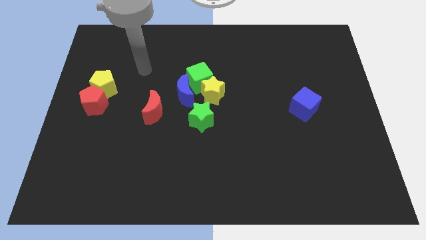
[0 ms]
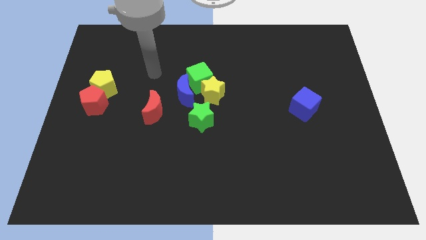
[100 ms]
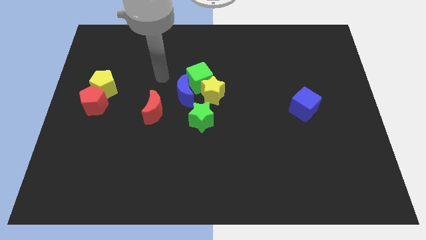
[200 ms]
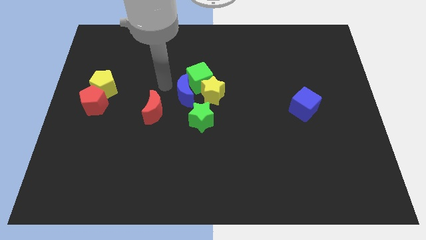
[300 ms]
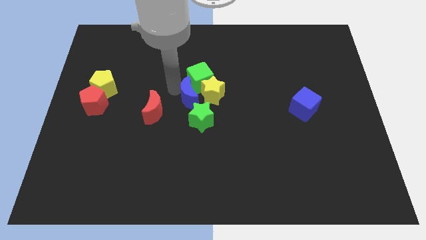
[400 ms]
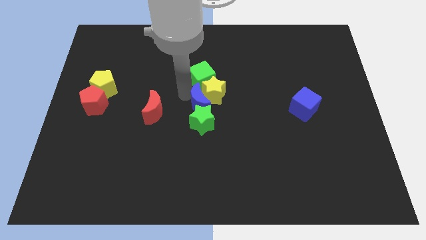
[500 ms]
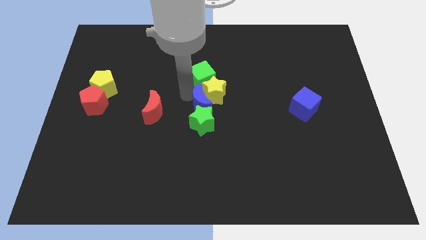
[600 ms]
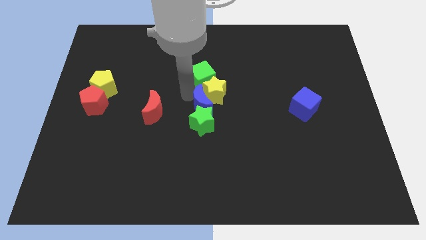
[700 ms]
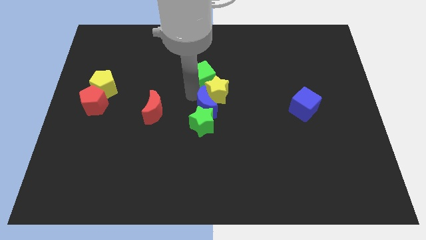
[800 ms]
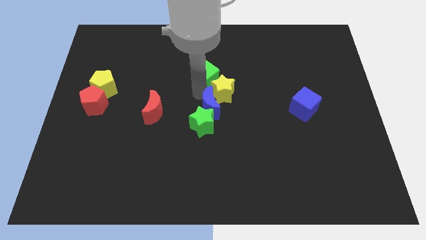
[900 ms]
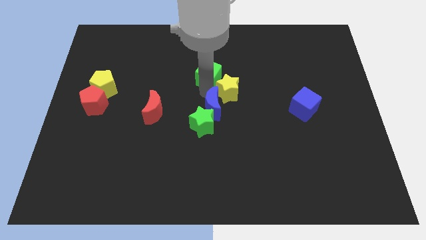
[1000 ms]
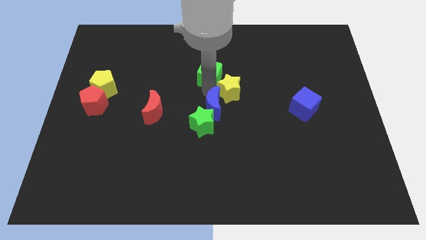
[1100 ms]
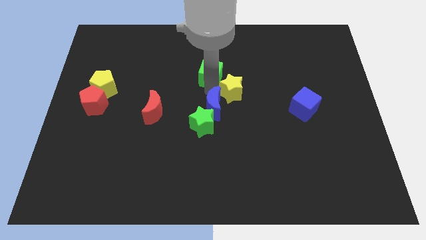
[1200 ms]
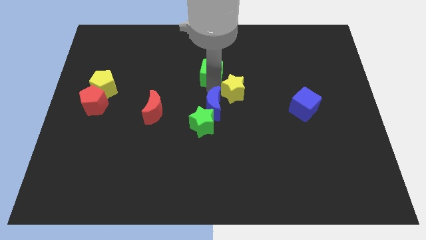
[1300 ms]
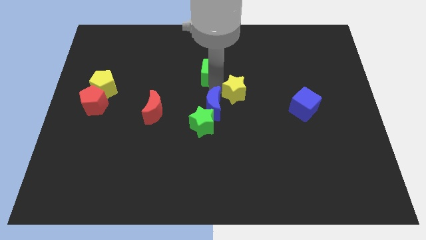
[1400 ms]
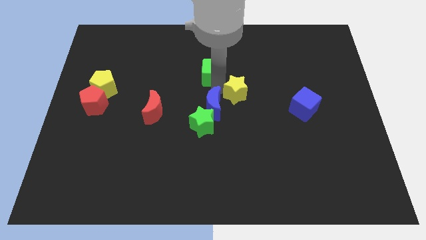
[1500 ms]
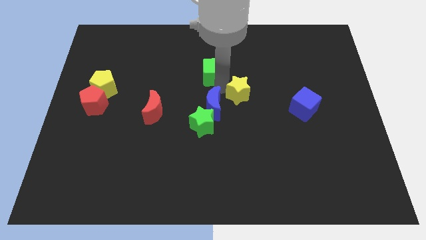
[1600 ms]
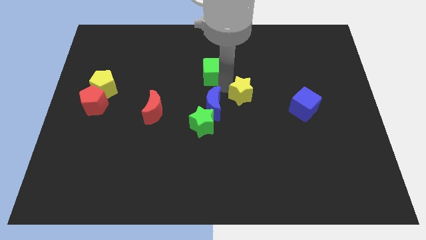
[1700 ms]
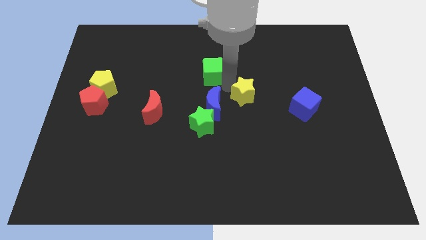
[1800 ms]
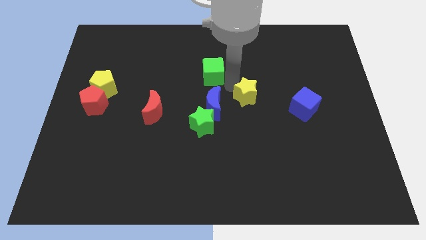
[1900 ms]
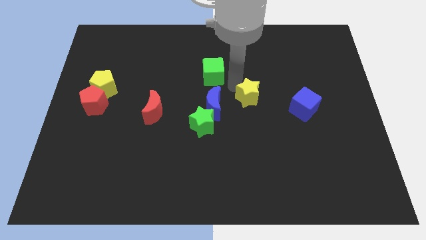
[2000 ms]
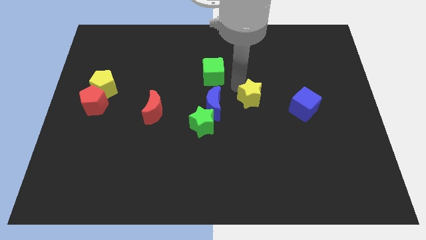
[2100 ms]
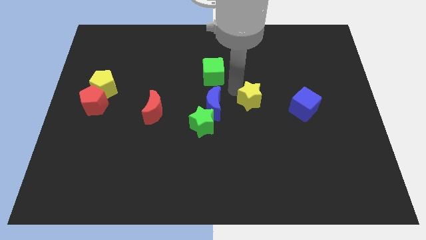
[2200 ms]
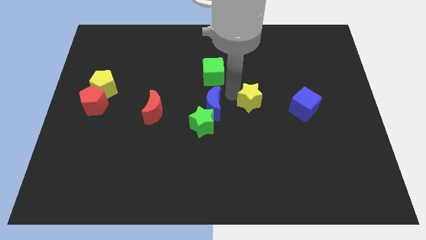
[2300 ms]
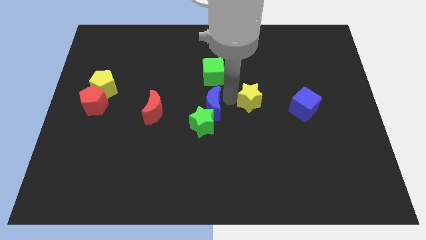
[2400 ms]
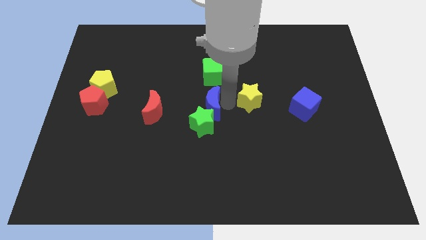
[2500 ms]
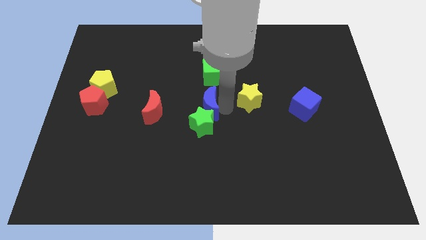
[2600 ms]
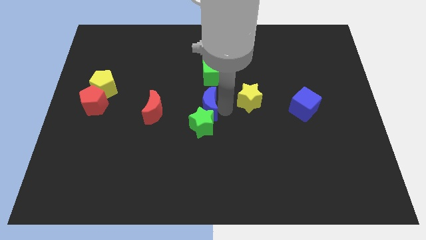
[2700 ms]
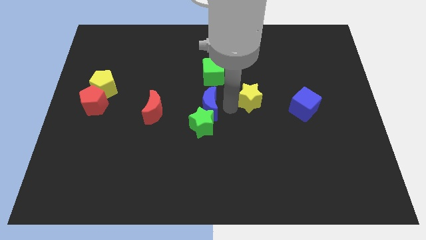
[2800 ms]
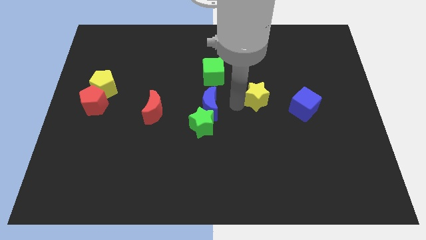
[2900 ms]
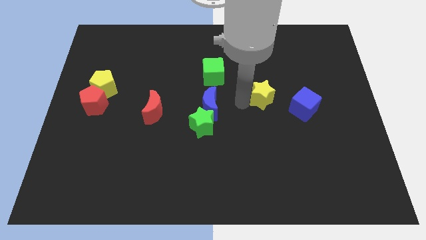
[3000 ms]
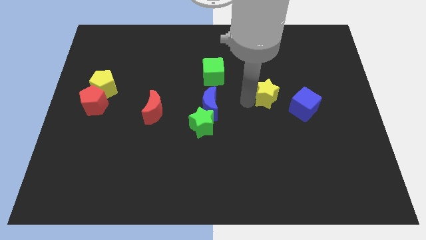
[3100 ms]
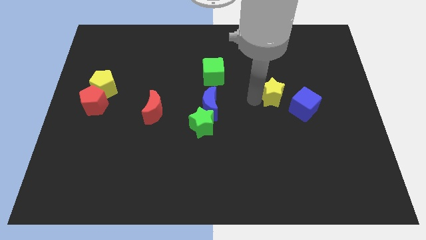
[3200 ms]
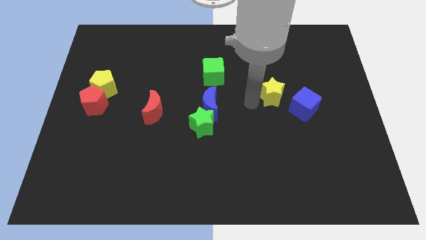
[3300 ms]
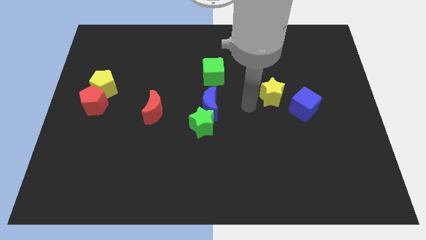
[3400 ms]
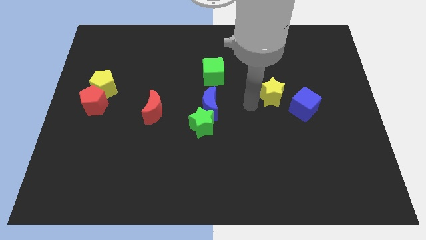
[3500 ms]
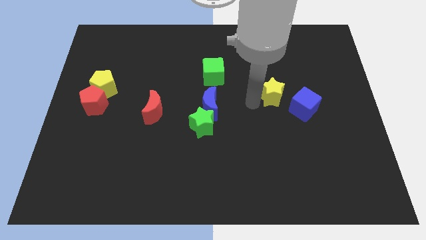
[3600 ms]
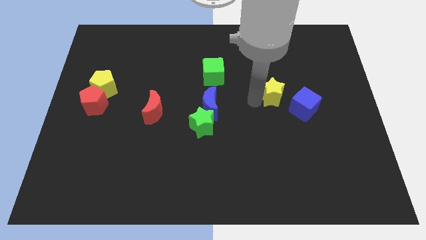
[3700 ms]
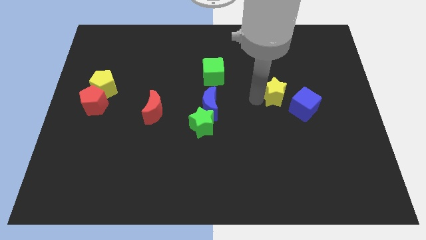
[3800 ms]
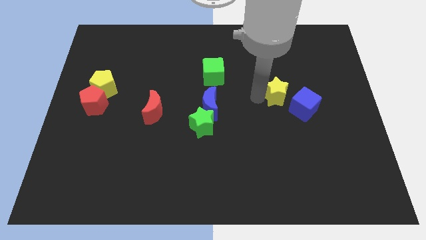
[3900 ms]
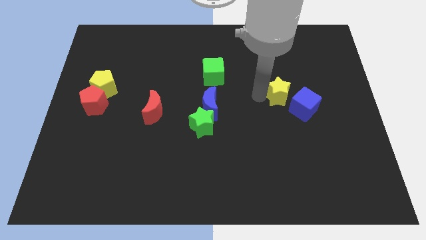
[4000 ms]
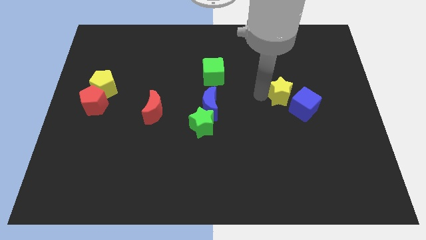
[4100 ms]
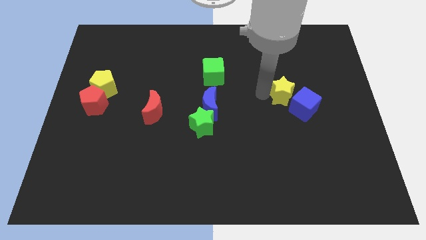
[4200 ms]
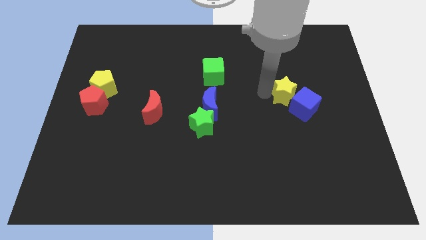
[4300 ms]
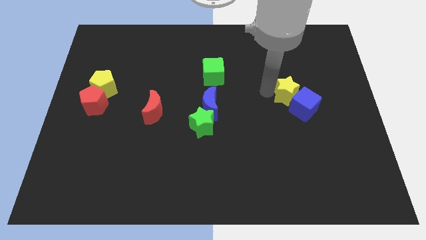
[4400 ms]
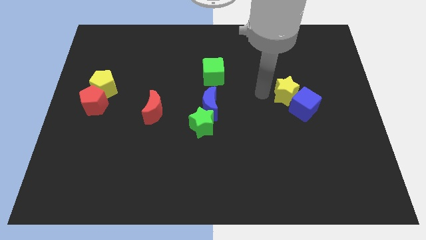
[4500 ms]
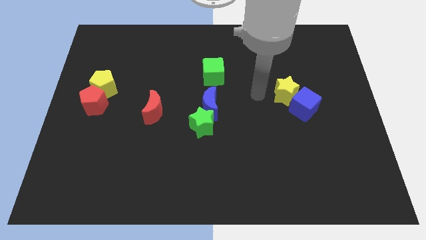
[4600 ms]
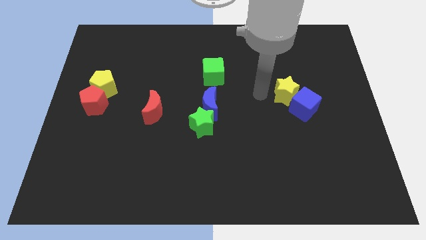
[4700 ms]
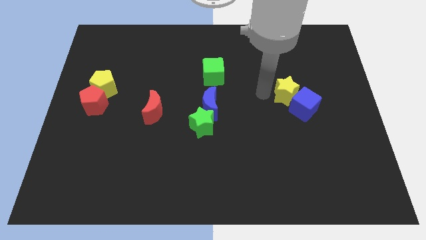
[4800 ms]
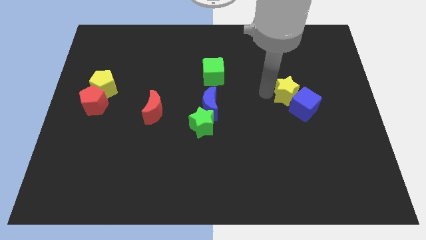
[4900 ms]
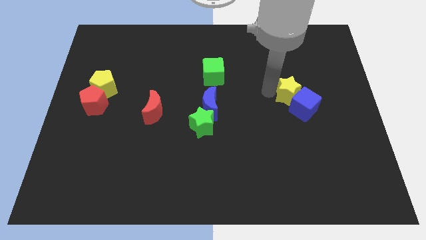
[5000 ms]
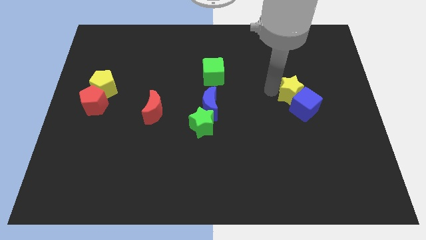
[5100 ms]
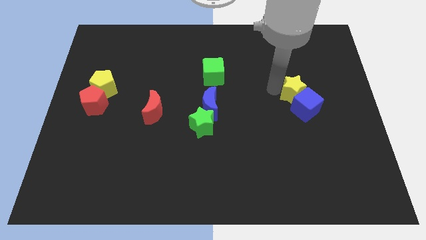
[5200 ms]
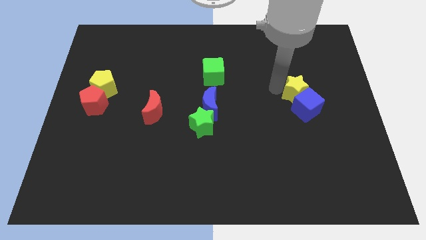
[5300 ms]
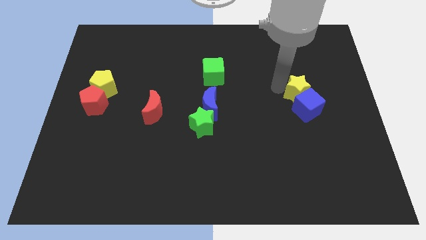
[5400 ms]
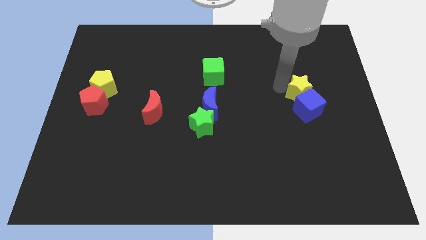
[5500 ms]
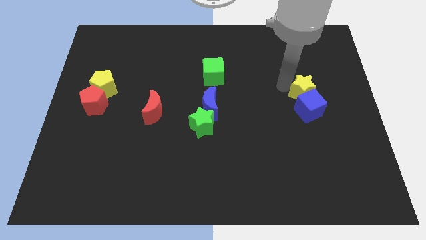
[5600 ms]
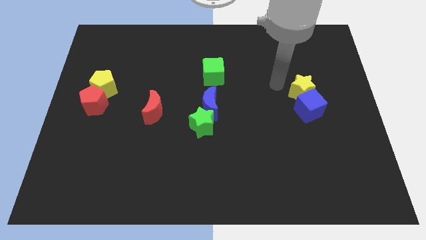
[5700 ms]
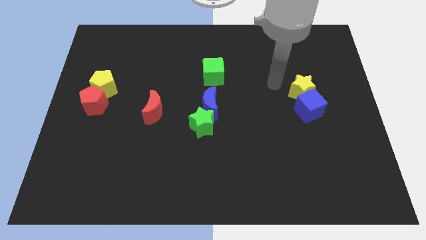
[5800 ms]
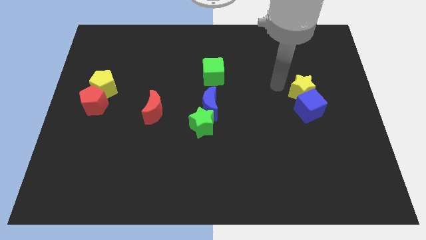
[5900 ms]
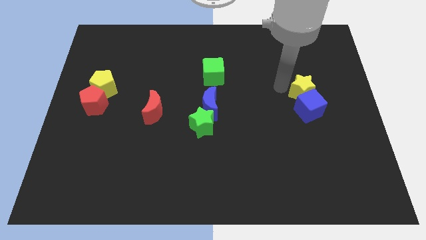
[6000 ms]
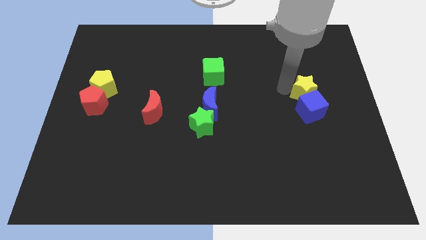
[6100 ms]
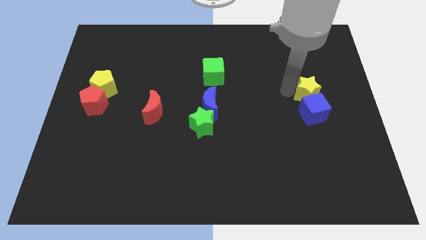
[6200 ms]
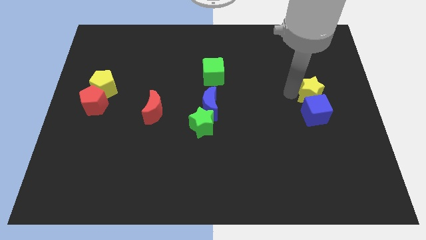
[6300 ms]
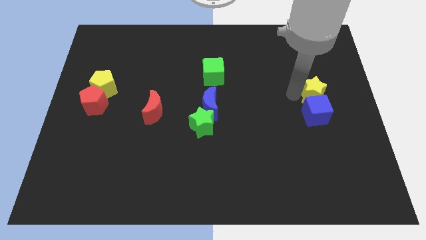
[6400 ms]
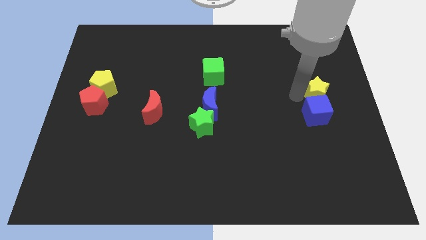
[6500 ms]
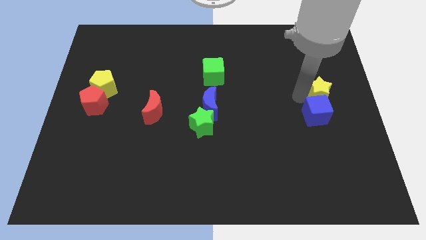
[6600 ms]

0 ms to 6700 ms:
put the yellow star to the right side
